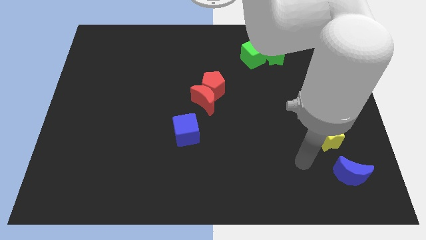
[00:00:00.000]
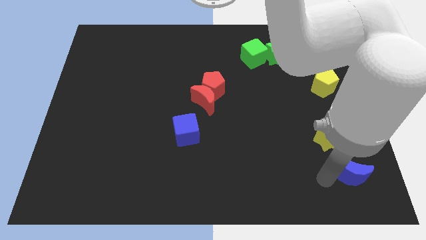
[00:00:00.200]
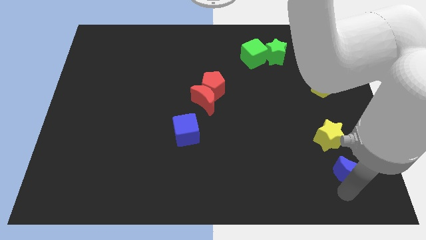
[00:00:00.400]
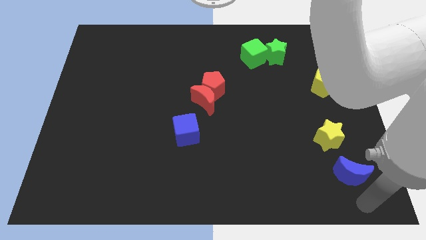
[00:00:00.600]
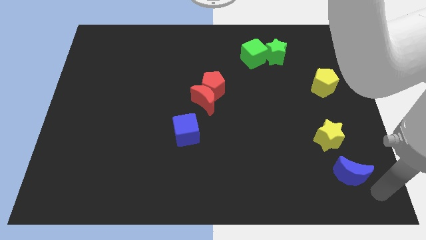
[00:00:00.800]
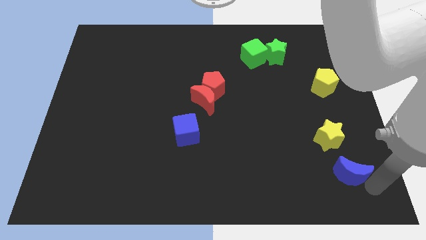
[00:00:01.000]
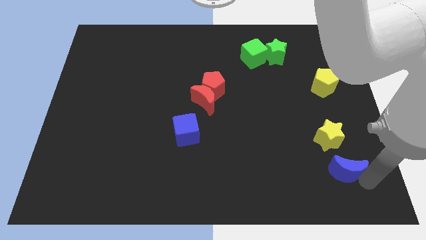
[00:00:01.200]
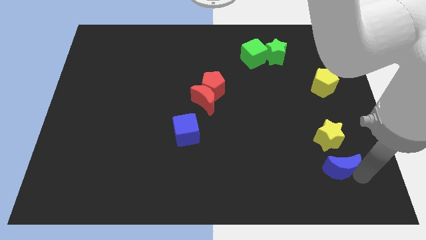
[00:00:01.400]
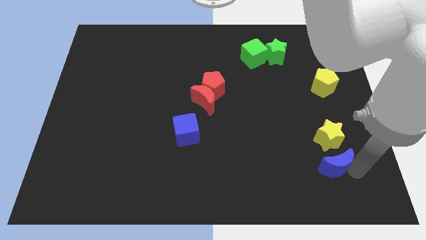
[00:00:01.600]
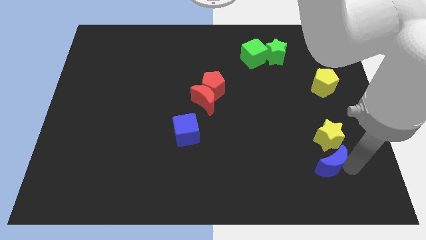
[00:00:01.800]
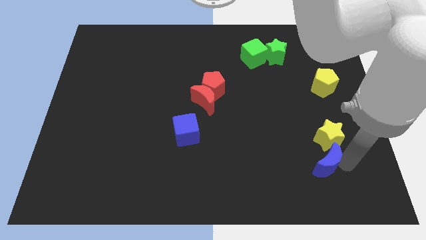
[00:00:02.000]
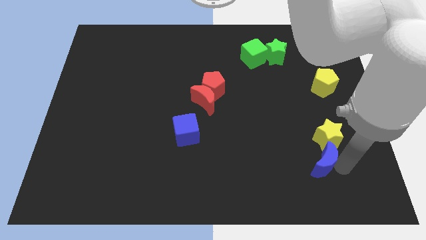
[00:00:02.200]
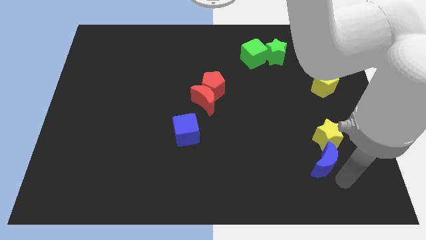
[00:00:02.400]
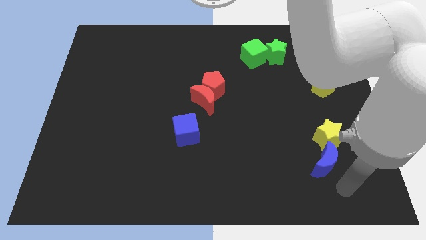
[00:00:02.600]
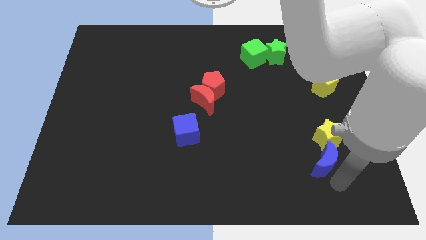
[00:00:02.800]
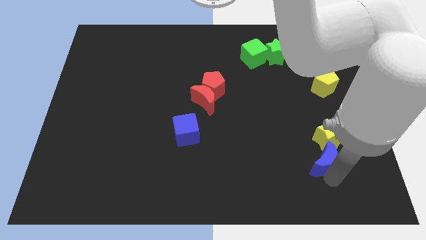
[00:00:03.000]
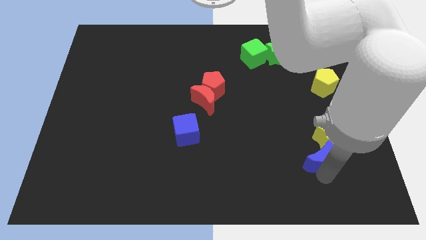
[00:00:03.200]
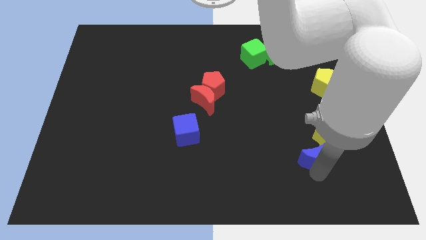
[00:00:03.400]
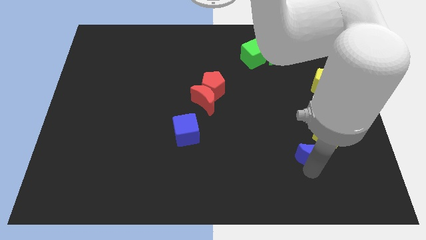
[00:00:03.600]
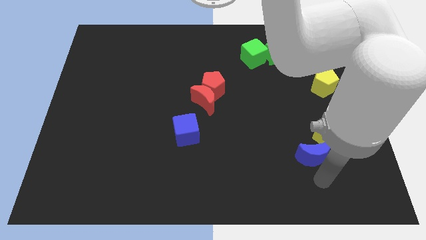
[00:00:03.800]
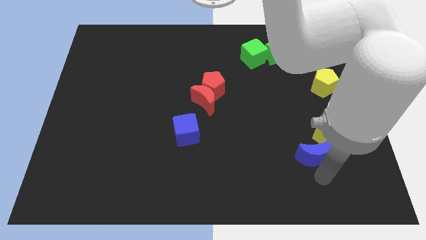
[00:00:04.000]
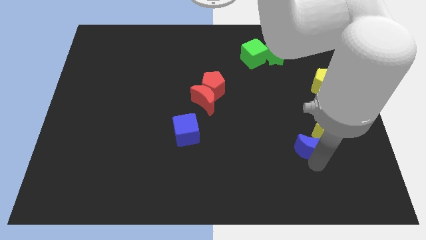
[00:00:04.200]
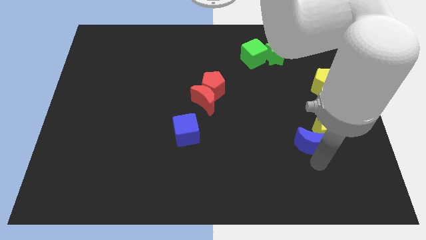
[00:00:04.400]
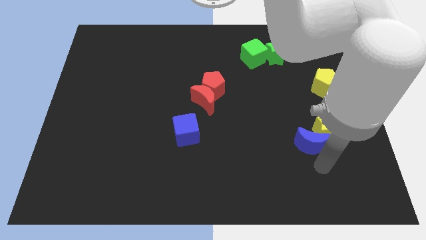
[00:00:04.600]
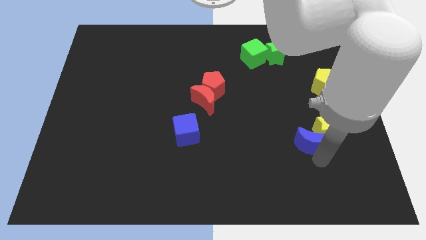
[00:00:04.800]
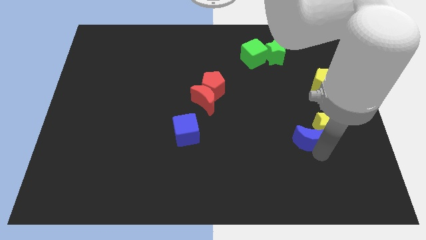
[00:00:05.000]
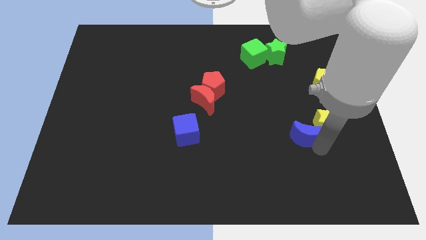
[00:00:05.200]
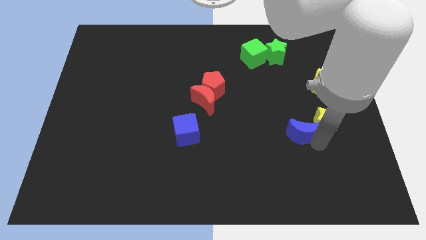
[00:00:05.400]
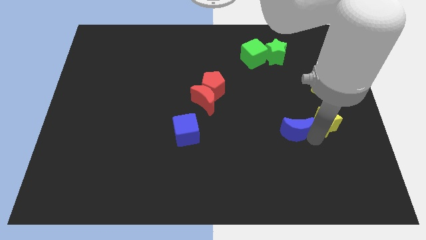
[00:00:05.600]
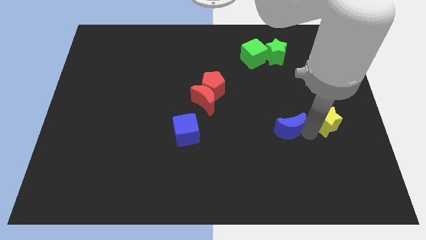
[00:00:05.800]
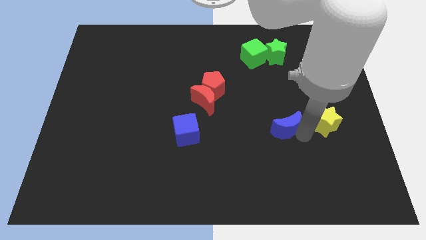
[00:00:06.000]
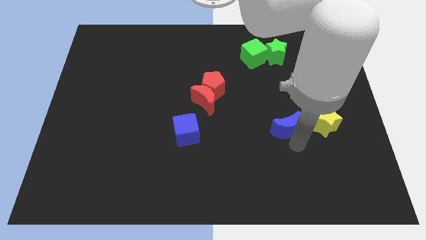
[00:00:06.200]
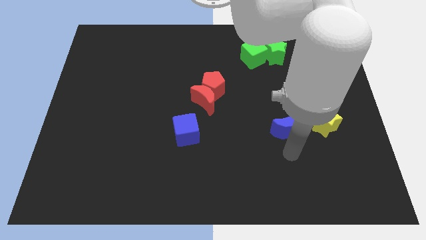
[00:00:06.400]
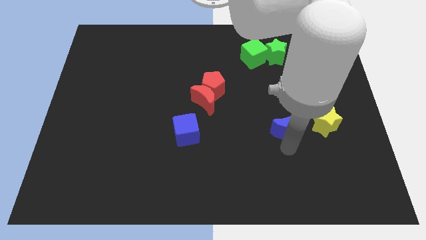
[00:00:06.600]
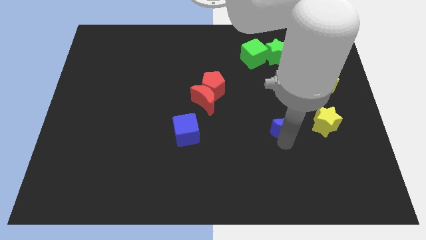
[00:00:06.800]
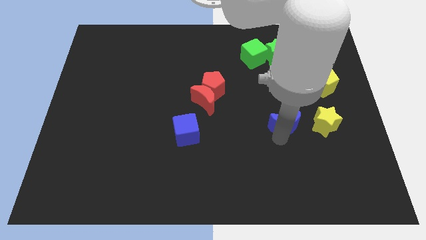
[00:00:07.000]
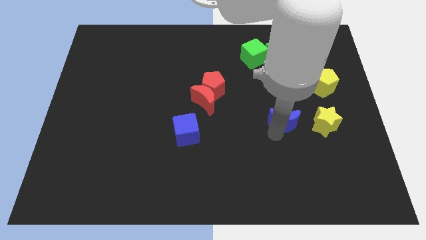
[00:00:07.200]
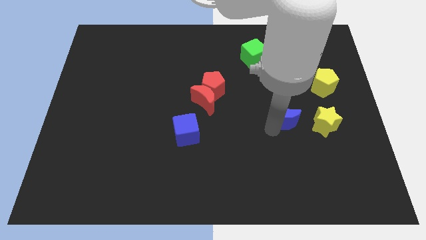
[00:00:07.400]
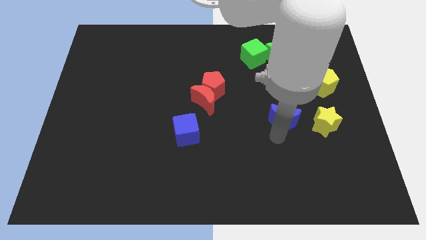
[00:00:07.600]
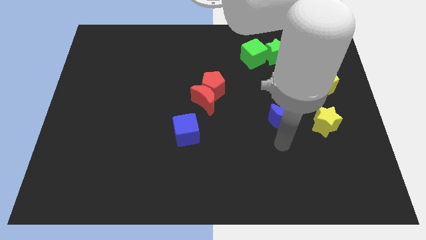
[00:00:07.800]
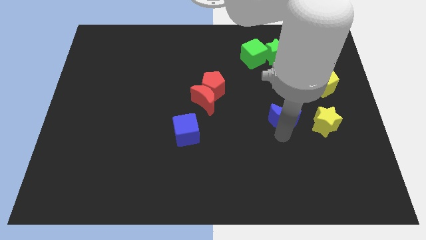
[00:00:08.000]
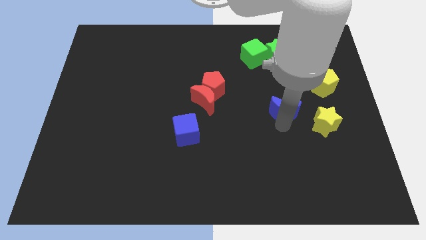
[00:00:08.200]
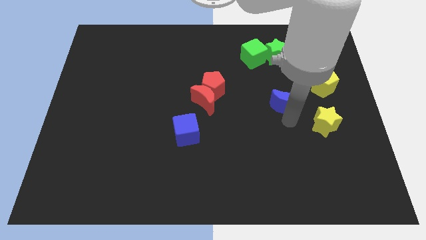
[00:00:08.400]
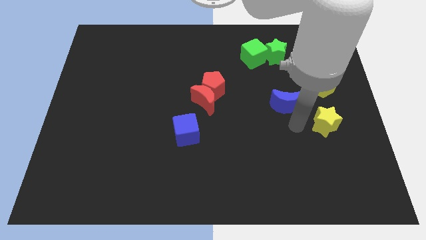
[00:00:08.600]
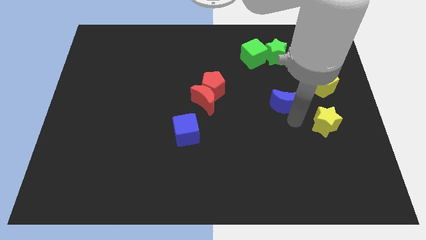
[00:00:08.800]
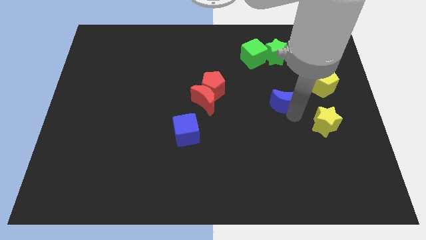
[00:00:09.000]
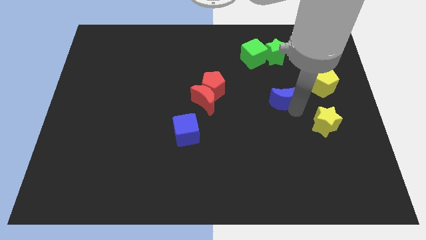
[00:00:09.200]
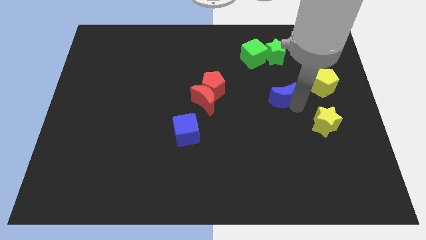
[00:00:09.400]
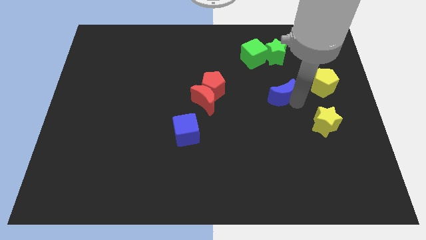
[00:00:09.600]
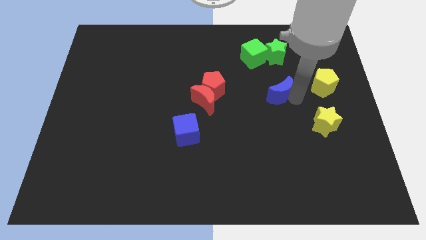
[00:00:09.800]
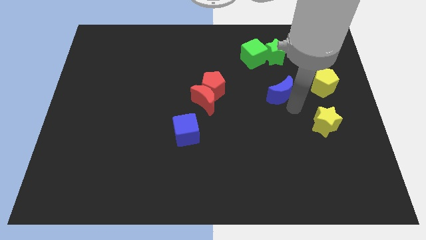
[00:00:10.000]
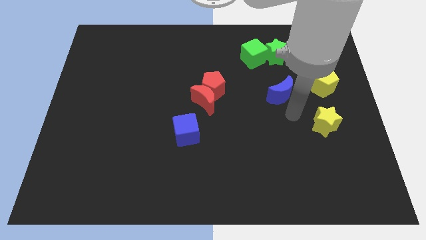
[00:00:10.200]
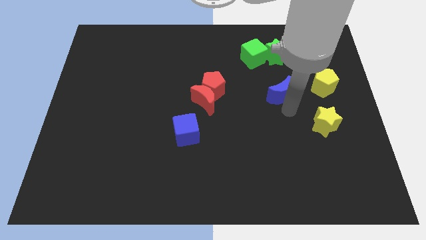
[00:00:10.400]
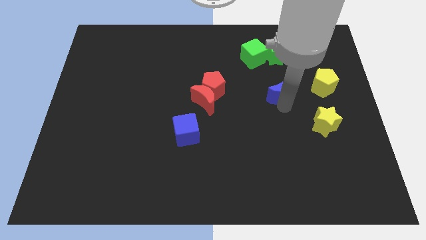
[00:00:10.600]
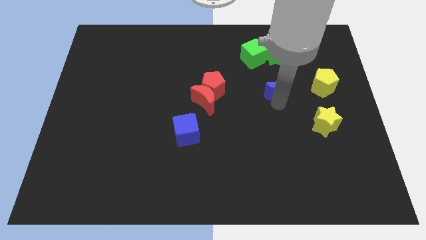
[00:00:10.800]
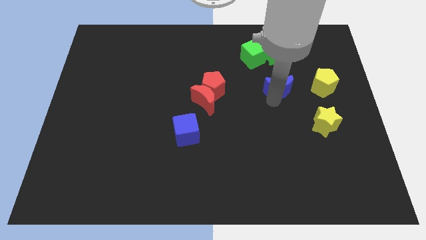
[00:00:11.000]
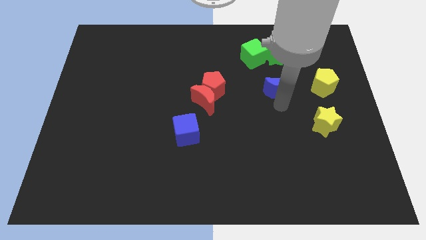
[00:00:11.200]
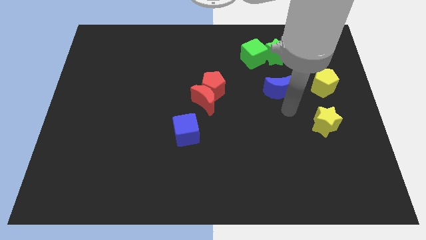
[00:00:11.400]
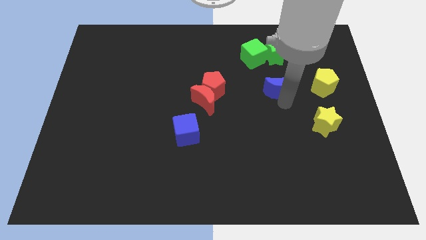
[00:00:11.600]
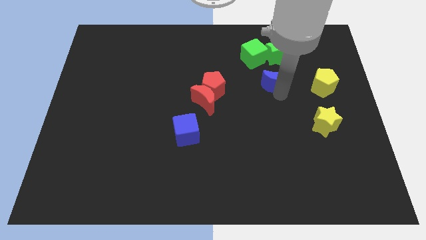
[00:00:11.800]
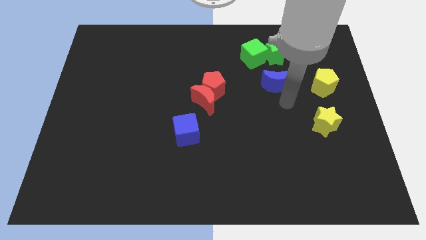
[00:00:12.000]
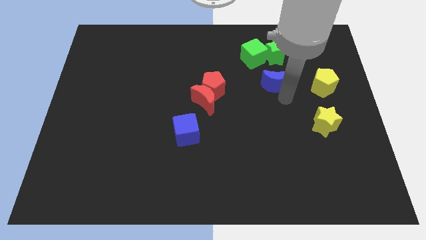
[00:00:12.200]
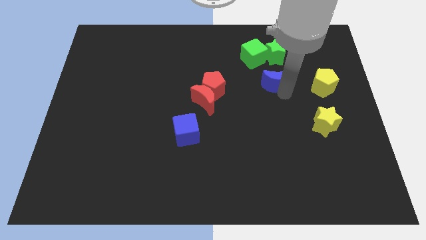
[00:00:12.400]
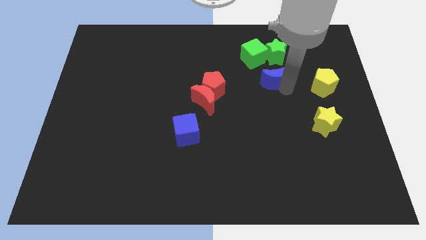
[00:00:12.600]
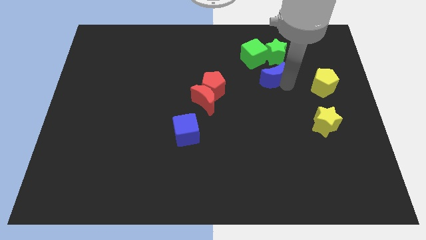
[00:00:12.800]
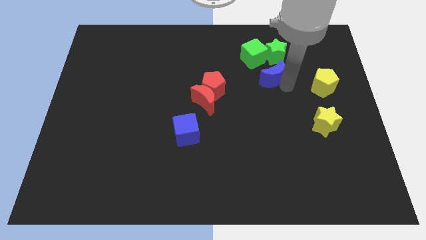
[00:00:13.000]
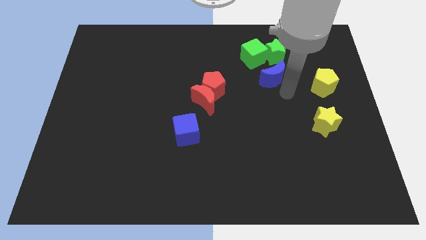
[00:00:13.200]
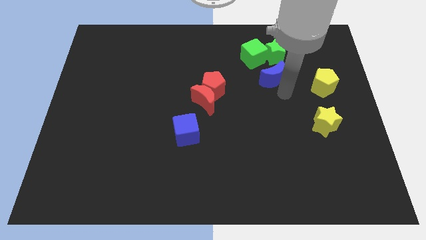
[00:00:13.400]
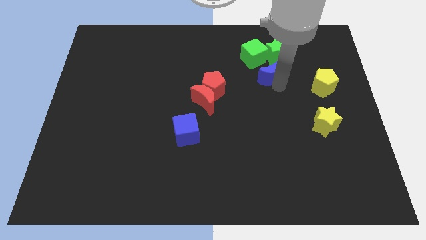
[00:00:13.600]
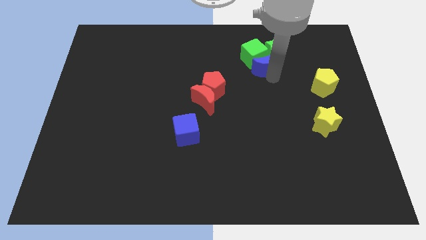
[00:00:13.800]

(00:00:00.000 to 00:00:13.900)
put the blue moon to the green cube
